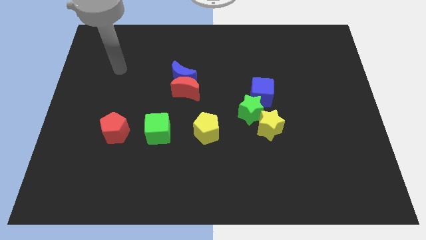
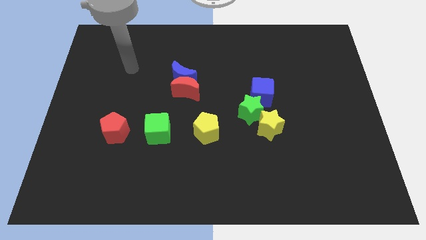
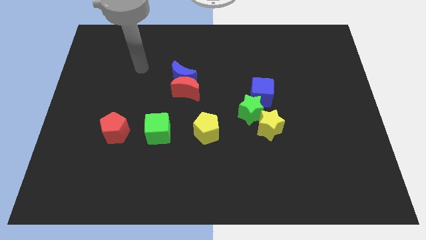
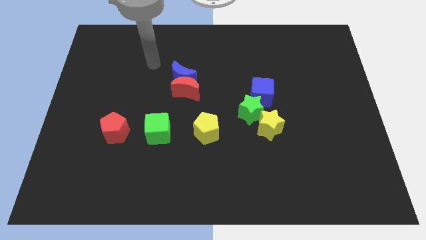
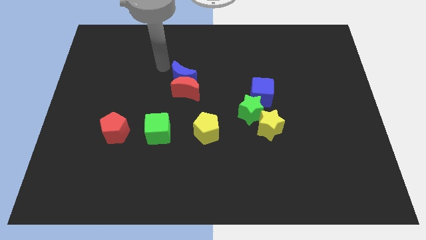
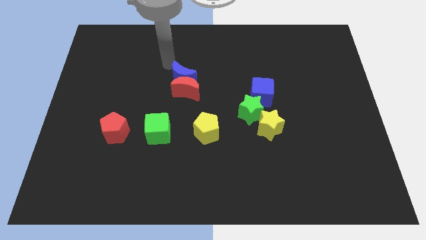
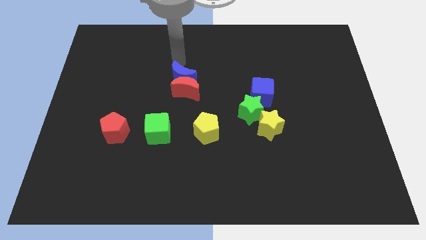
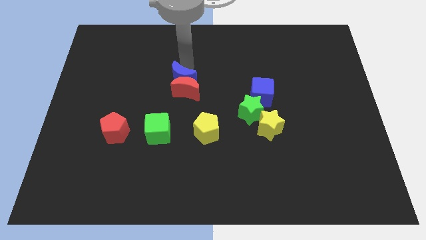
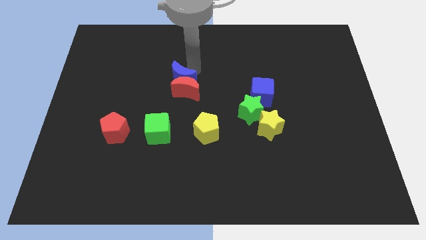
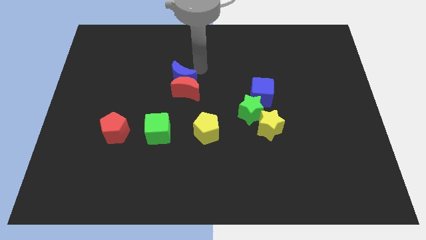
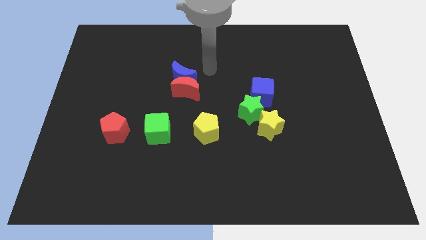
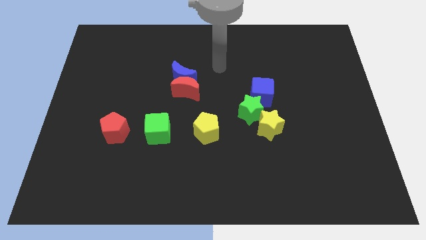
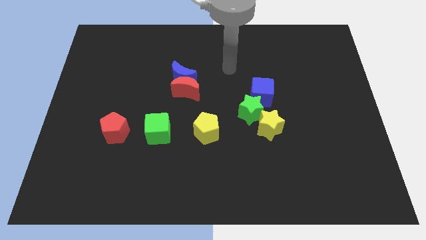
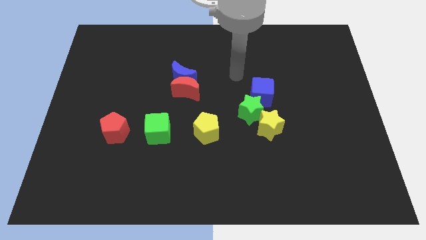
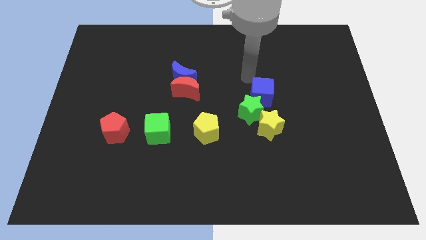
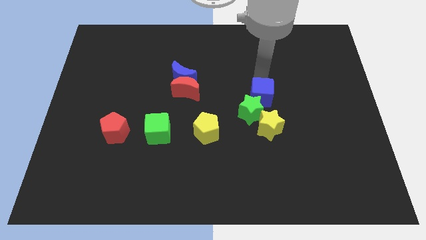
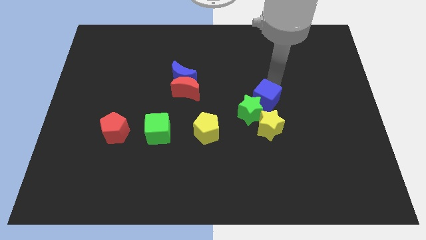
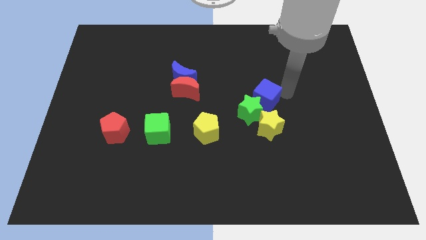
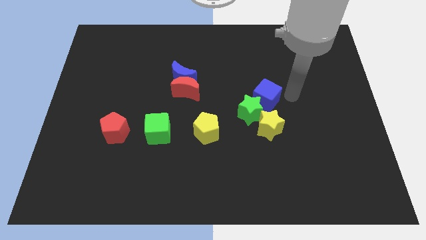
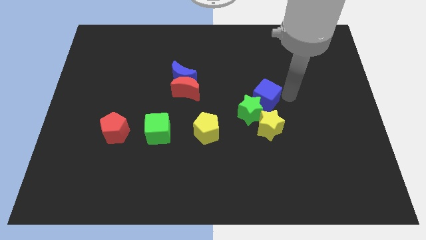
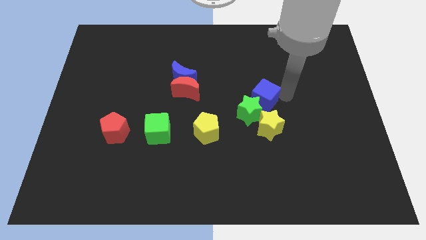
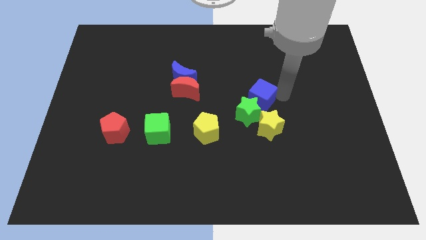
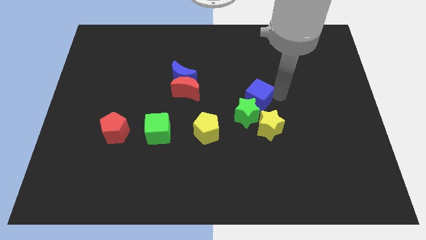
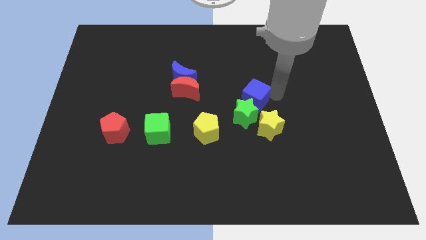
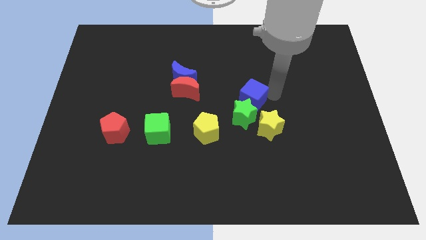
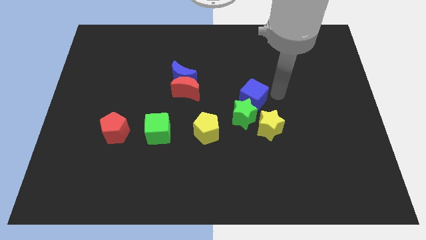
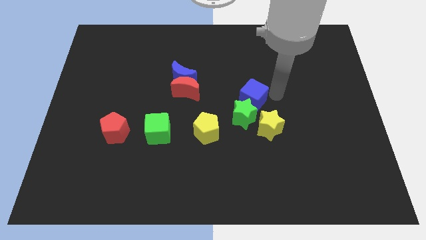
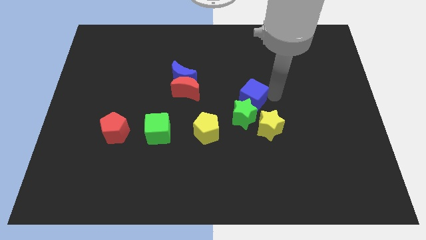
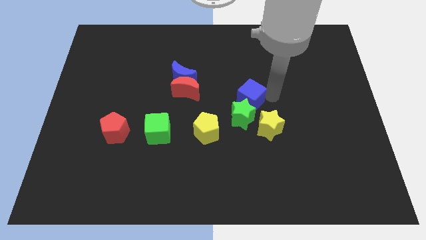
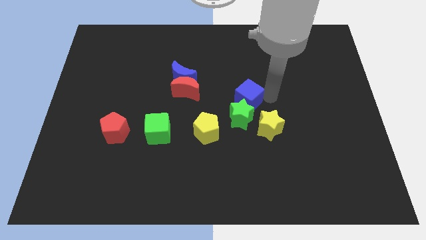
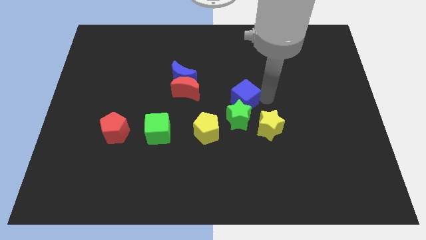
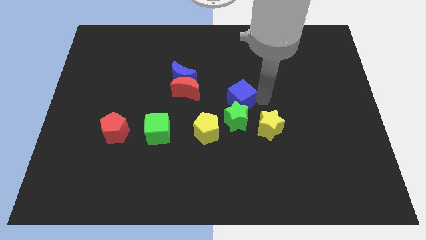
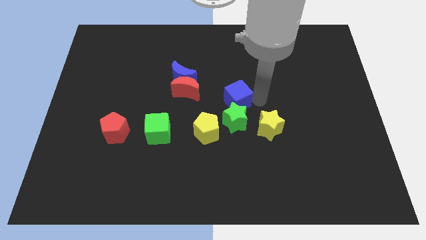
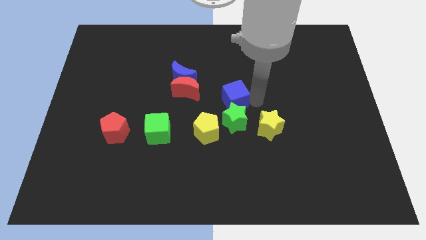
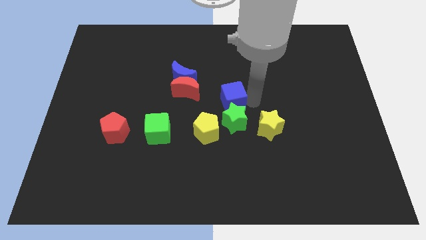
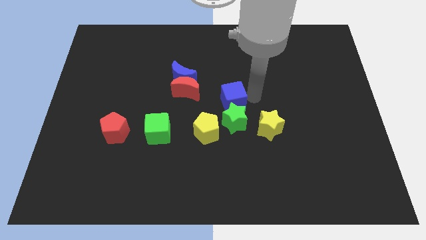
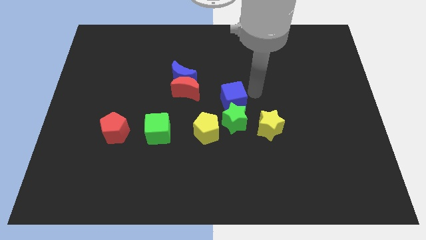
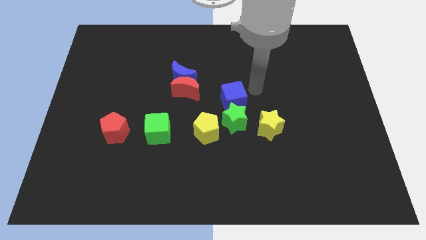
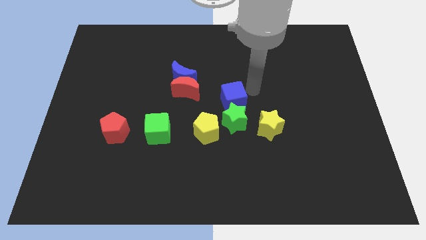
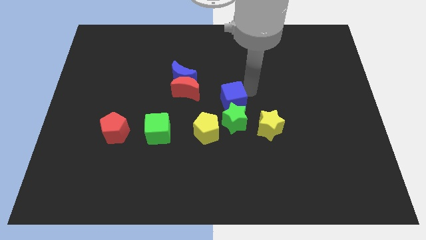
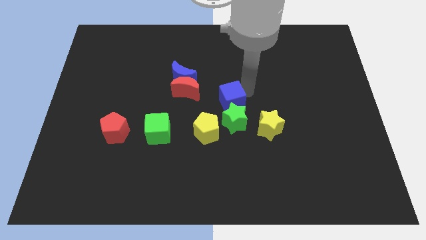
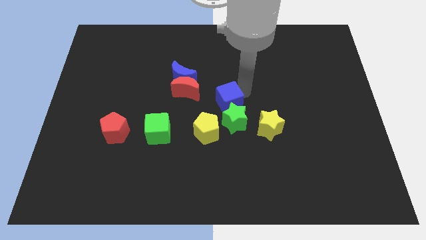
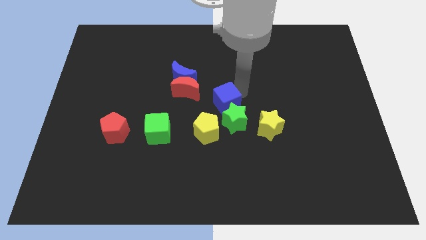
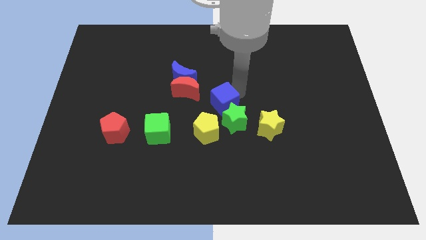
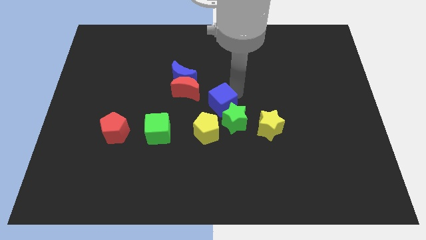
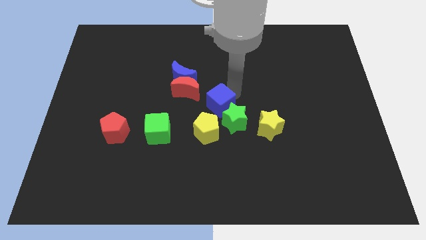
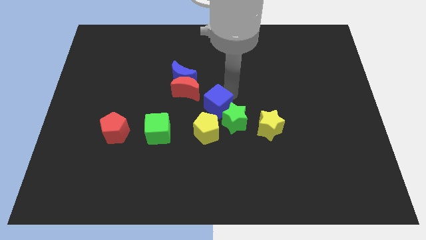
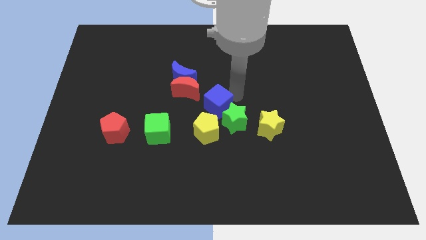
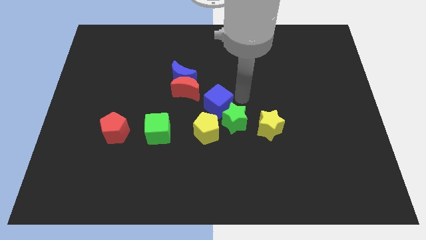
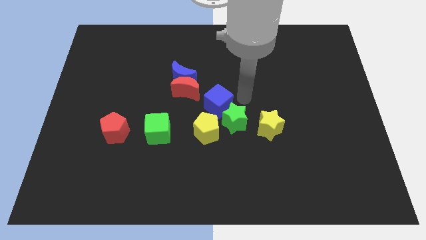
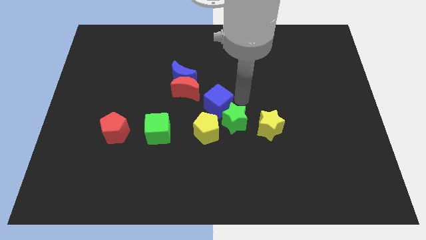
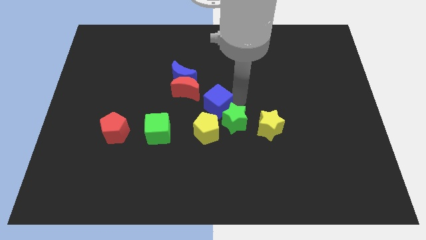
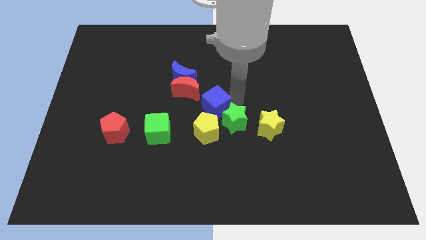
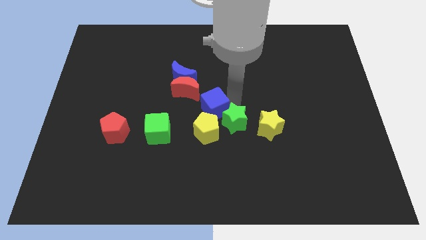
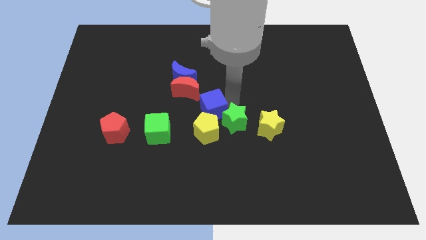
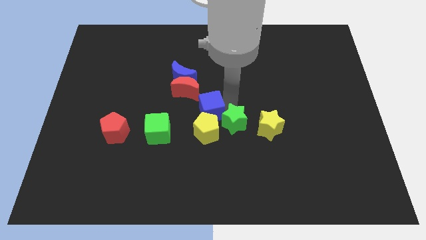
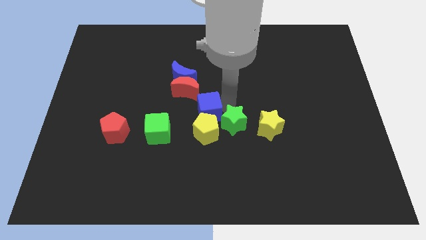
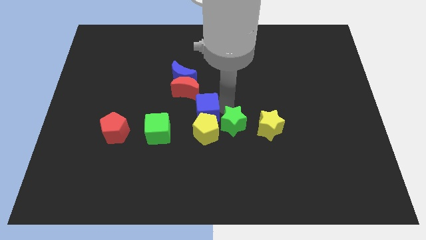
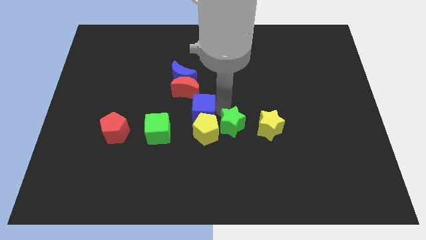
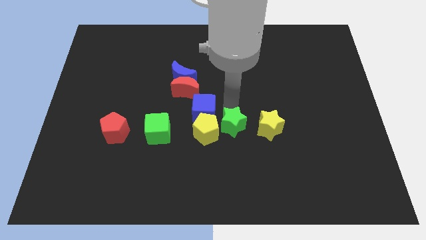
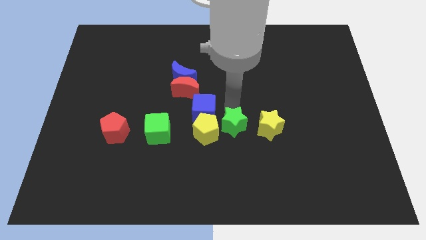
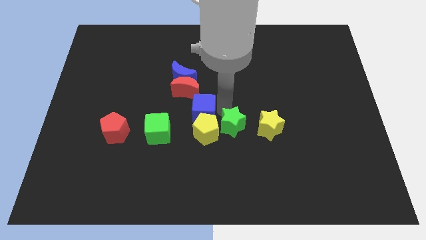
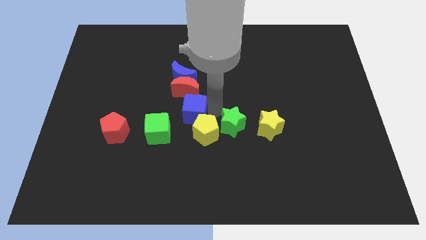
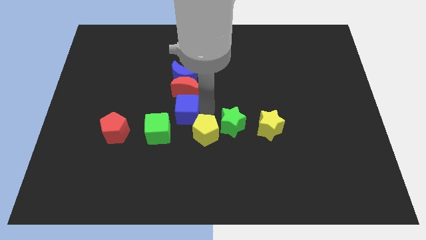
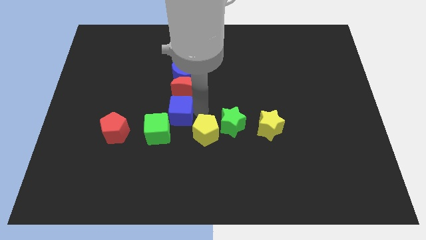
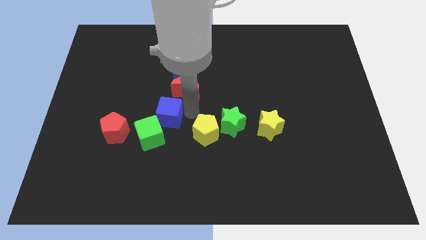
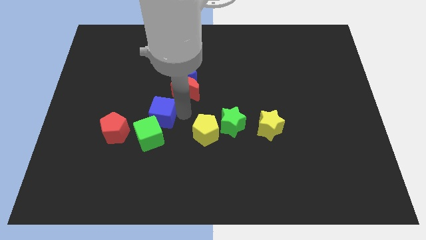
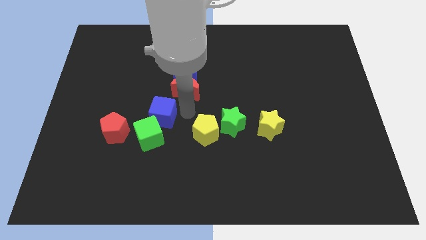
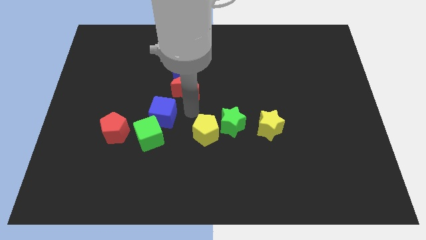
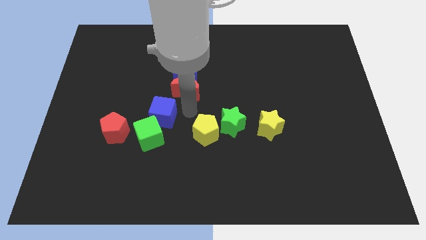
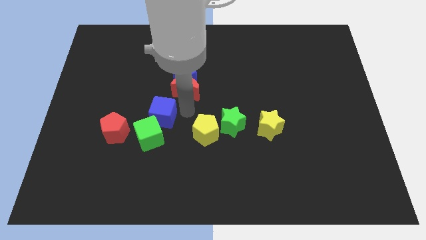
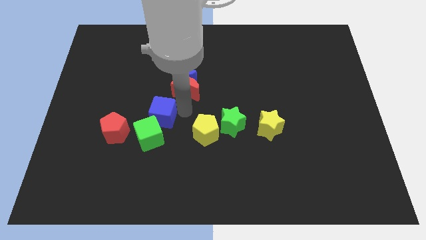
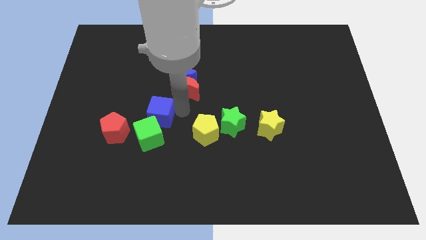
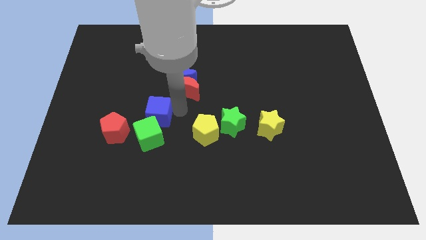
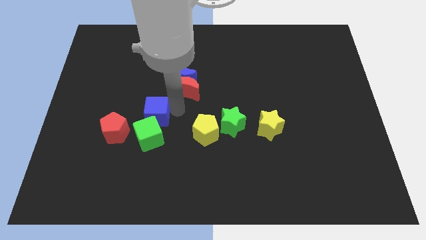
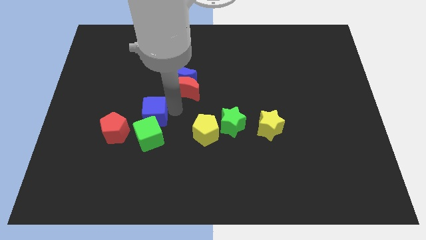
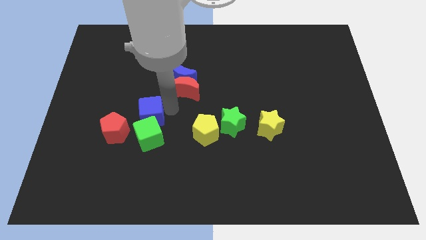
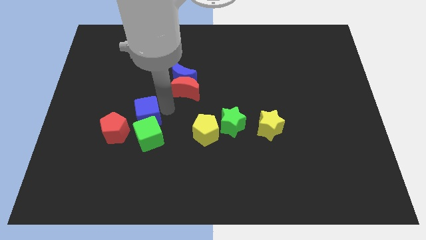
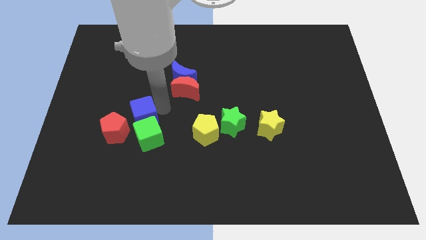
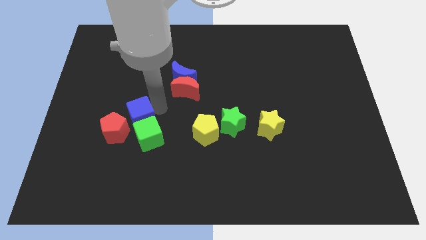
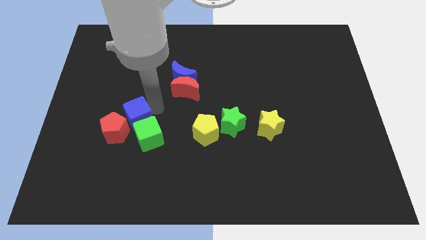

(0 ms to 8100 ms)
put the blue cube next to the red pentagon
